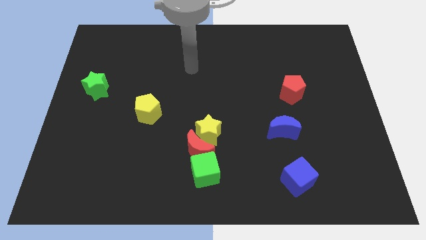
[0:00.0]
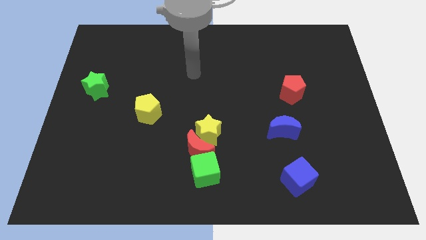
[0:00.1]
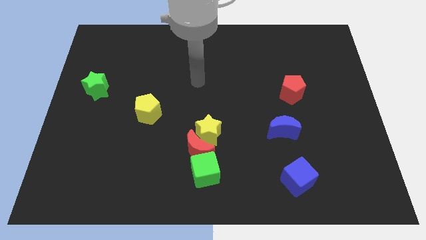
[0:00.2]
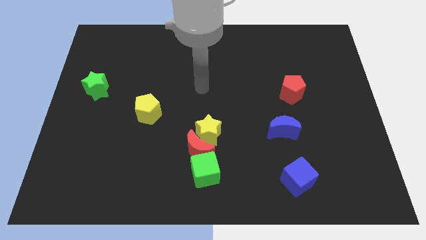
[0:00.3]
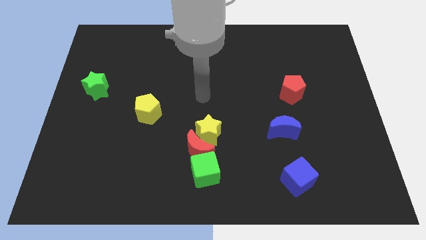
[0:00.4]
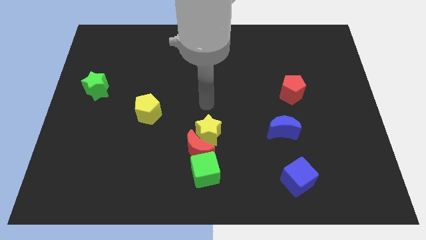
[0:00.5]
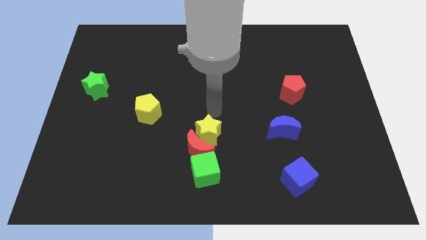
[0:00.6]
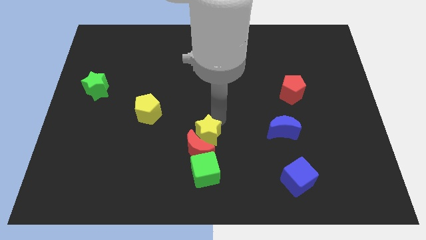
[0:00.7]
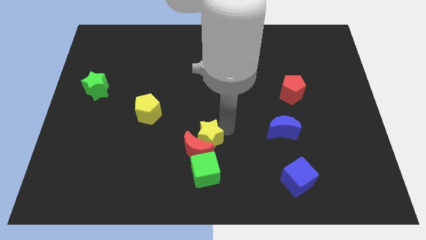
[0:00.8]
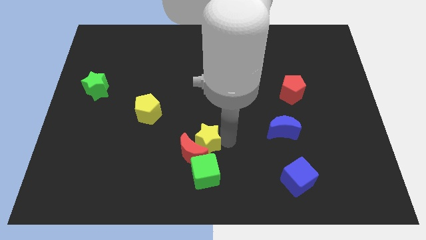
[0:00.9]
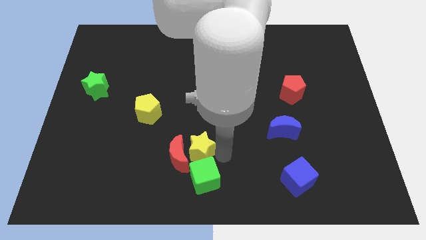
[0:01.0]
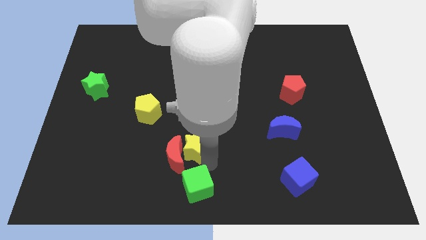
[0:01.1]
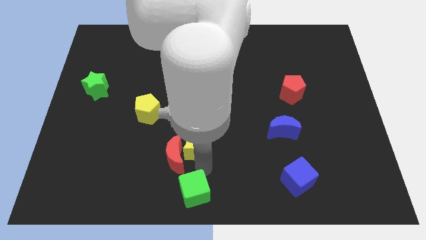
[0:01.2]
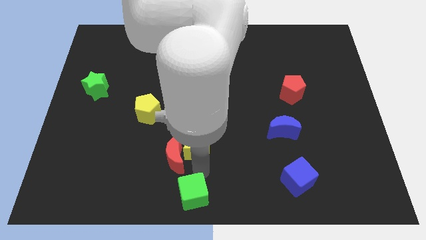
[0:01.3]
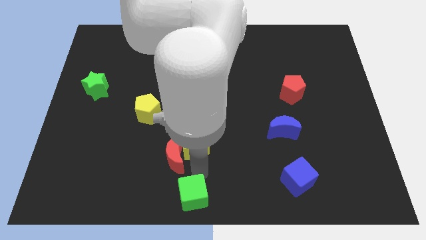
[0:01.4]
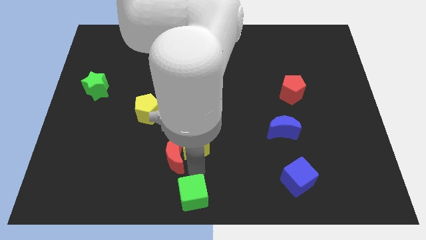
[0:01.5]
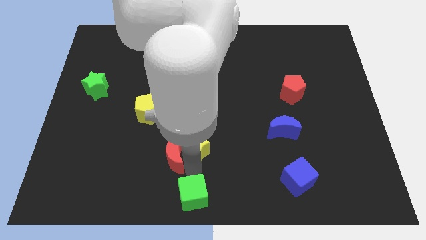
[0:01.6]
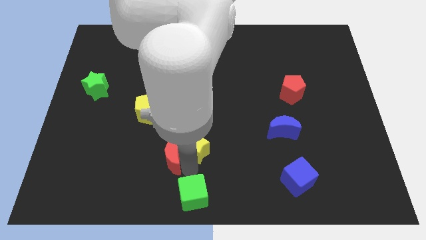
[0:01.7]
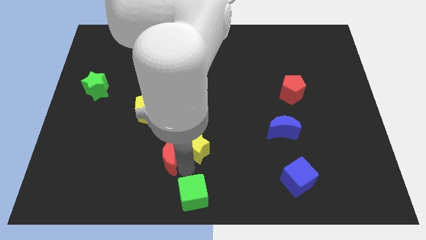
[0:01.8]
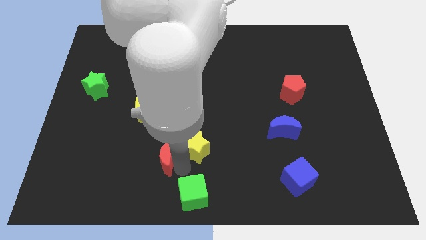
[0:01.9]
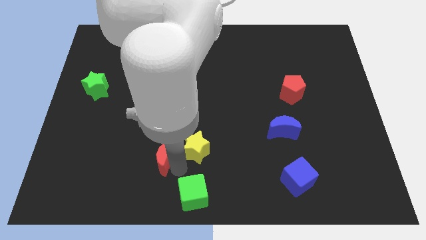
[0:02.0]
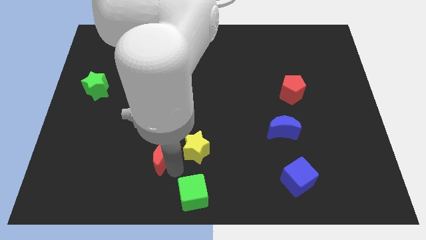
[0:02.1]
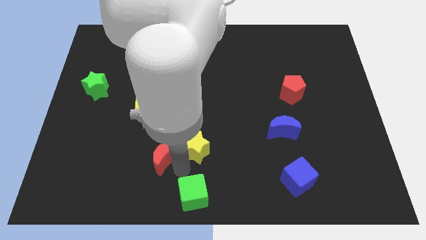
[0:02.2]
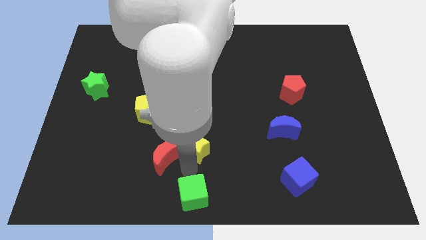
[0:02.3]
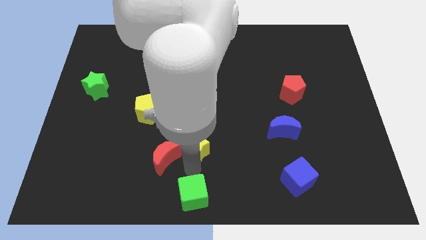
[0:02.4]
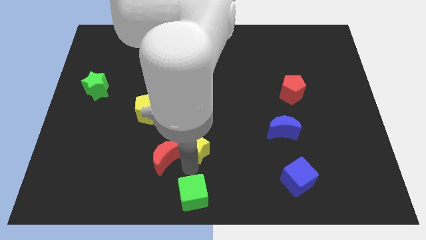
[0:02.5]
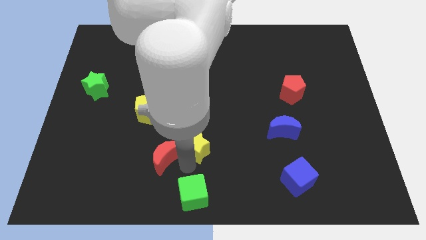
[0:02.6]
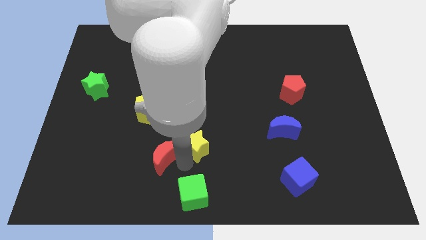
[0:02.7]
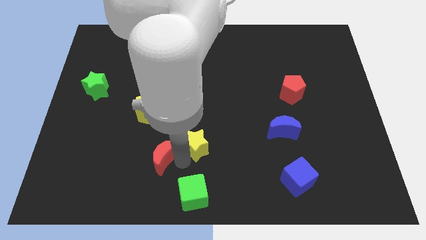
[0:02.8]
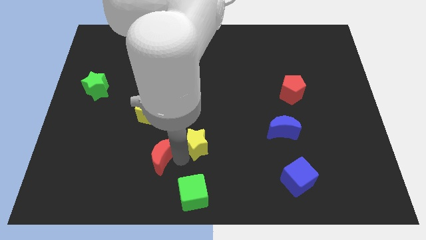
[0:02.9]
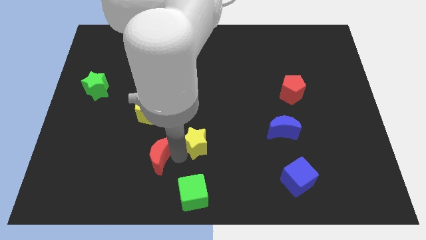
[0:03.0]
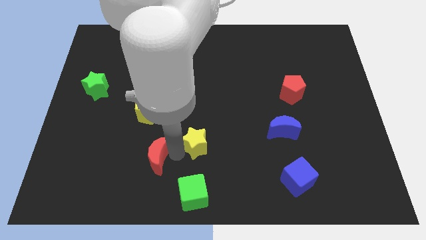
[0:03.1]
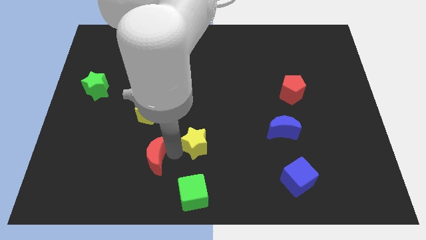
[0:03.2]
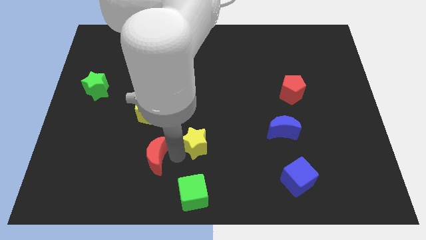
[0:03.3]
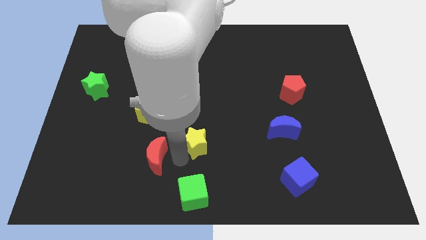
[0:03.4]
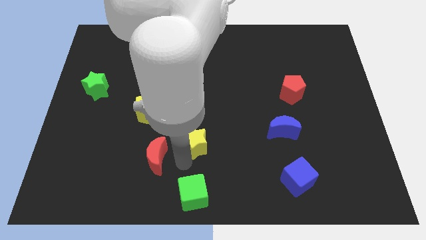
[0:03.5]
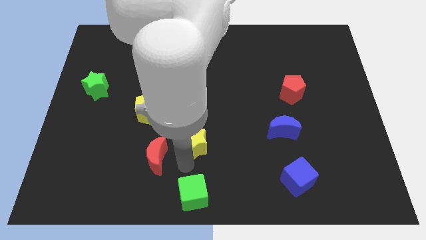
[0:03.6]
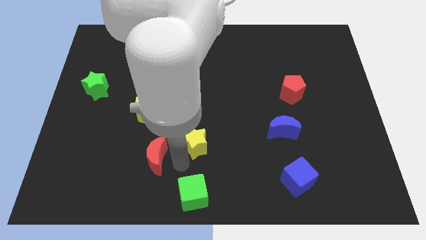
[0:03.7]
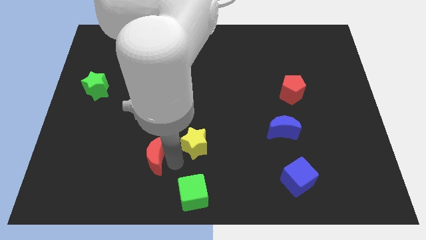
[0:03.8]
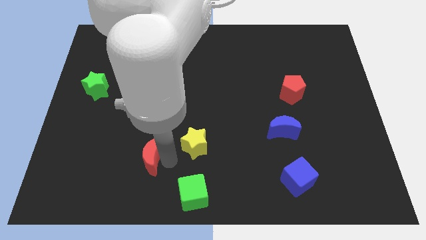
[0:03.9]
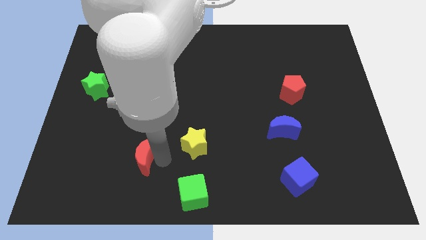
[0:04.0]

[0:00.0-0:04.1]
move the red moon away from the yellow star and green cube

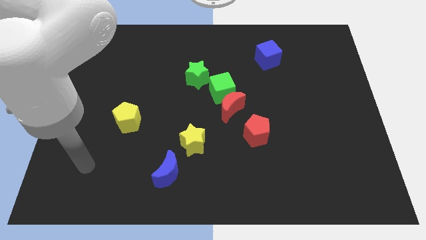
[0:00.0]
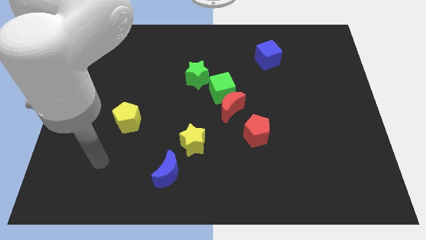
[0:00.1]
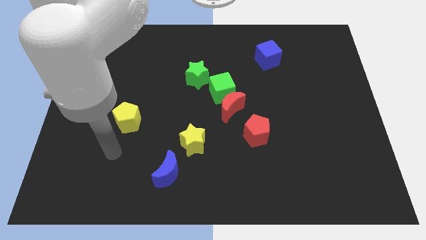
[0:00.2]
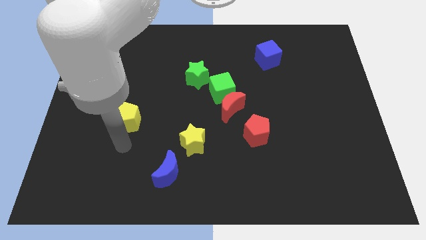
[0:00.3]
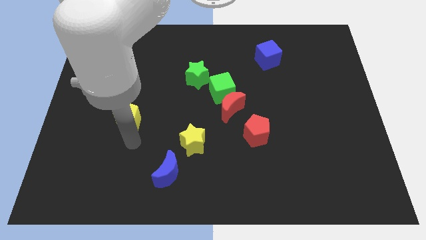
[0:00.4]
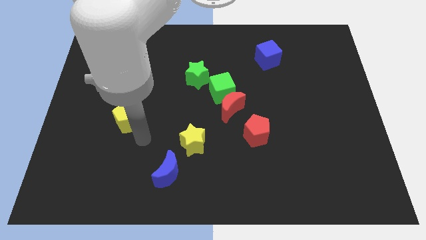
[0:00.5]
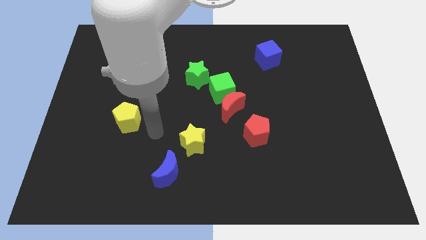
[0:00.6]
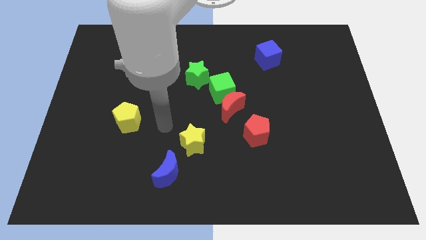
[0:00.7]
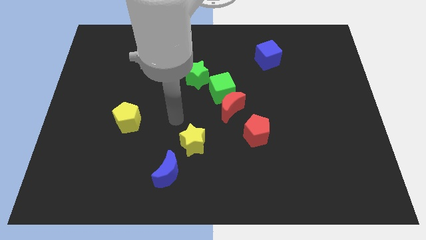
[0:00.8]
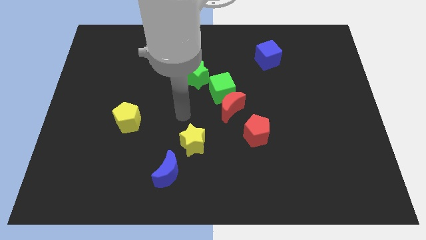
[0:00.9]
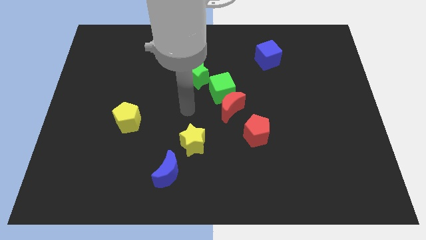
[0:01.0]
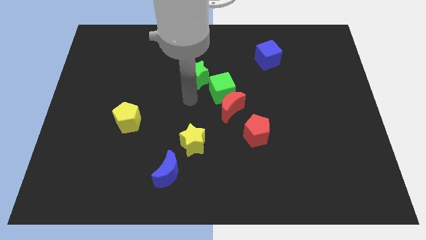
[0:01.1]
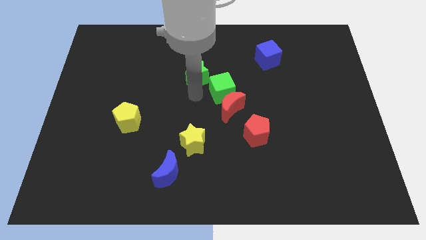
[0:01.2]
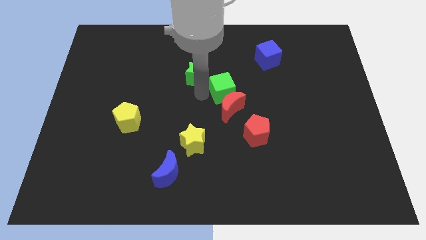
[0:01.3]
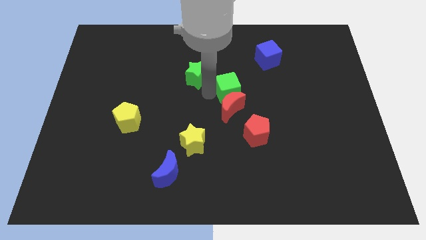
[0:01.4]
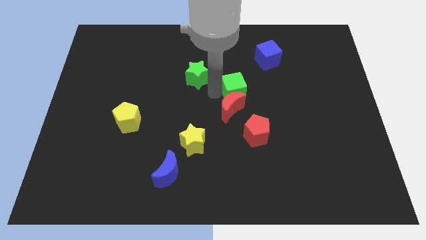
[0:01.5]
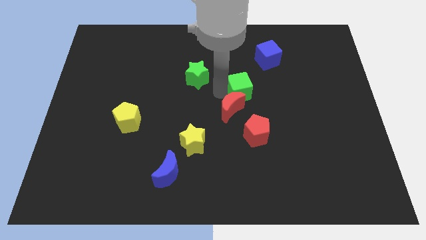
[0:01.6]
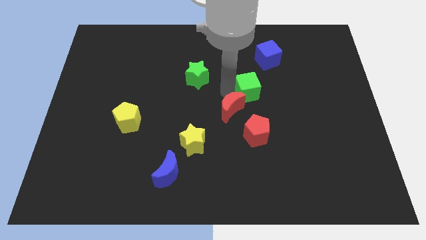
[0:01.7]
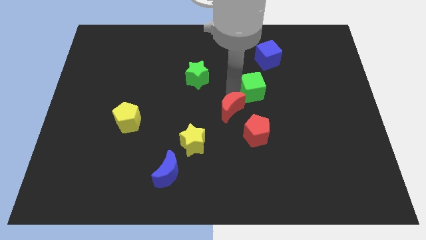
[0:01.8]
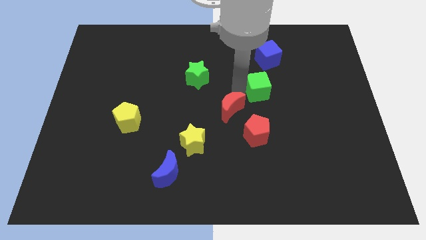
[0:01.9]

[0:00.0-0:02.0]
separate the green cube from the red moon and green star

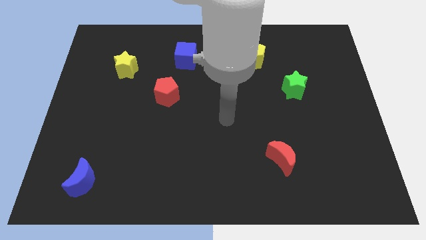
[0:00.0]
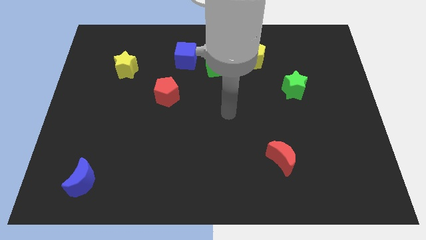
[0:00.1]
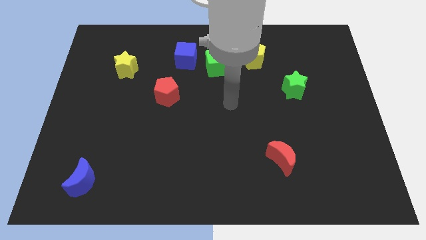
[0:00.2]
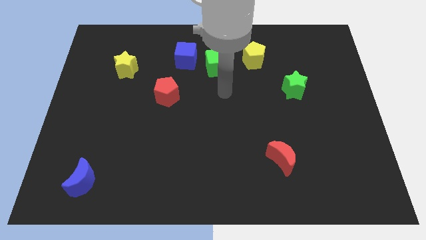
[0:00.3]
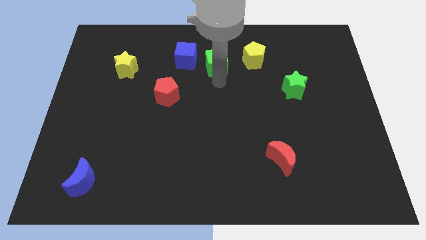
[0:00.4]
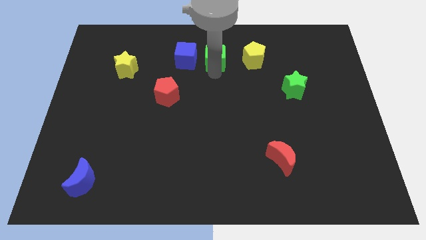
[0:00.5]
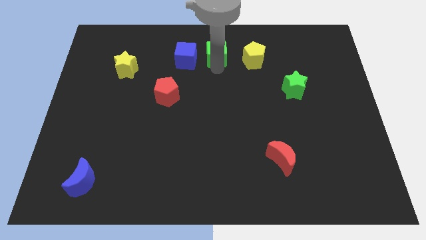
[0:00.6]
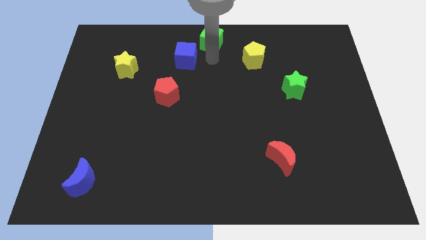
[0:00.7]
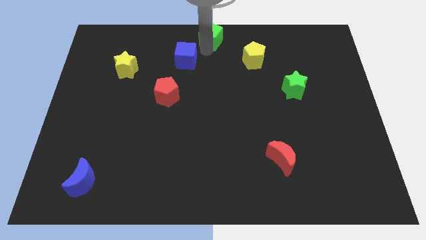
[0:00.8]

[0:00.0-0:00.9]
move the blue cube away from the green cube

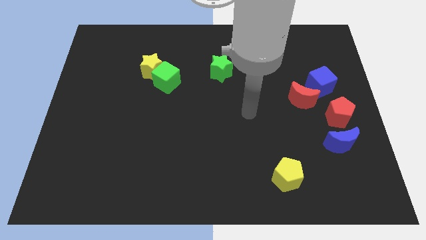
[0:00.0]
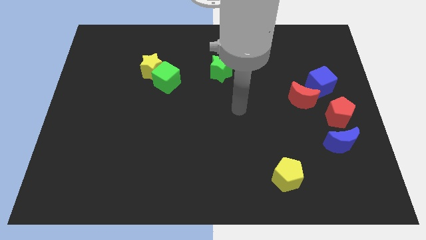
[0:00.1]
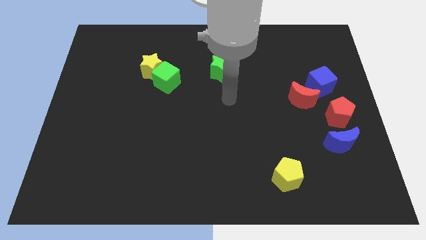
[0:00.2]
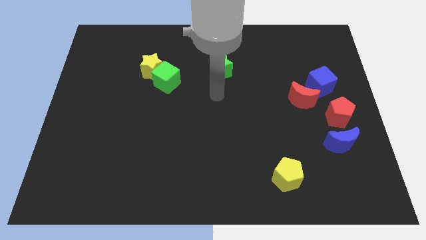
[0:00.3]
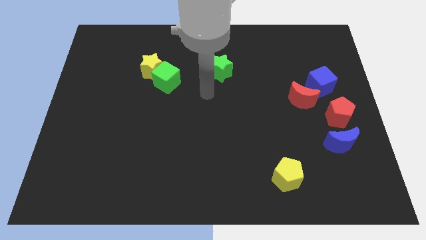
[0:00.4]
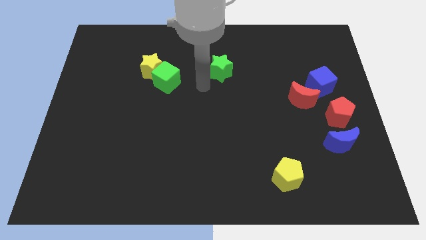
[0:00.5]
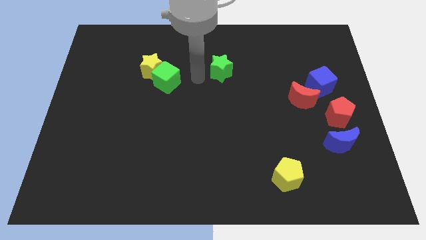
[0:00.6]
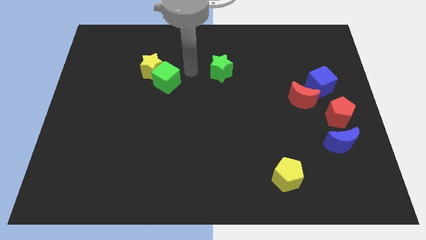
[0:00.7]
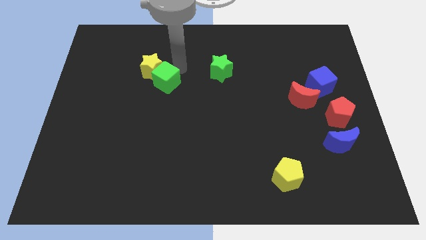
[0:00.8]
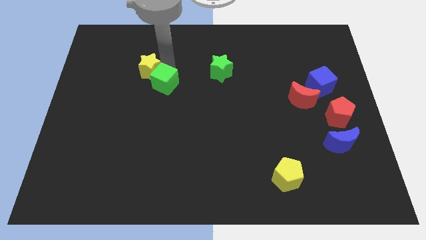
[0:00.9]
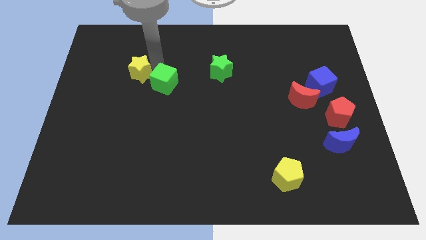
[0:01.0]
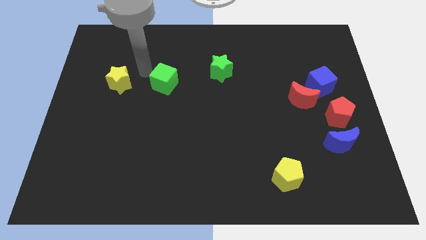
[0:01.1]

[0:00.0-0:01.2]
separate the green cube from the yellow star

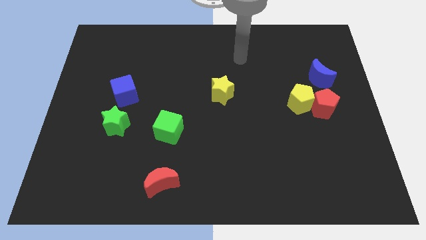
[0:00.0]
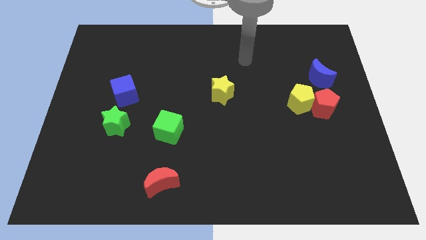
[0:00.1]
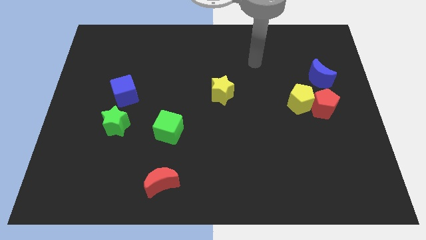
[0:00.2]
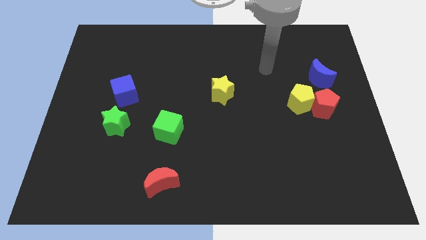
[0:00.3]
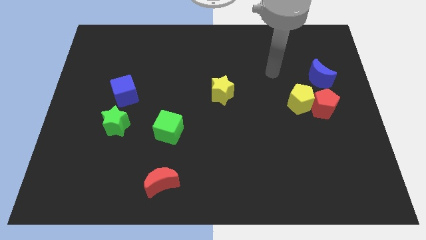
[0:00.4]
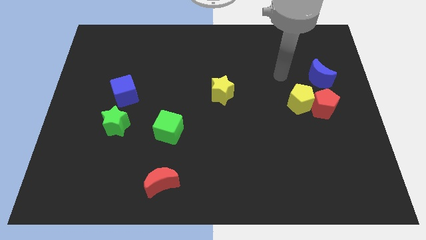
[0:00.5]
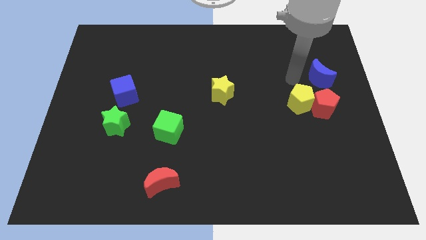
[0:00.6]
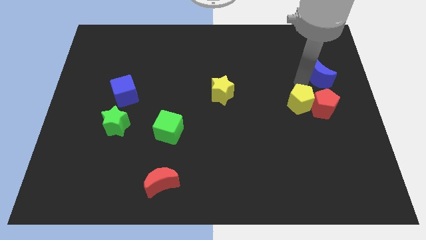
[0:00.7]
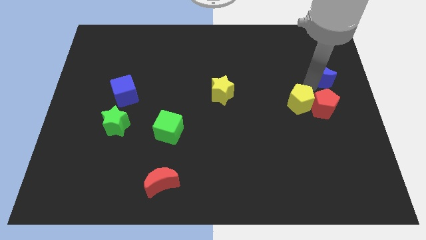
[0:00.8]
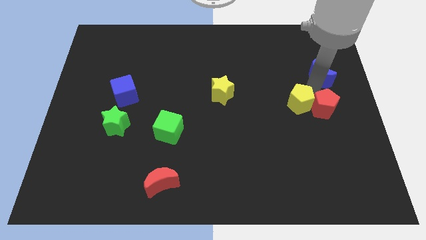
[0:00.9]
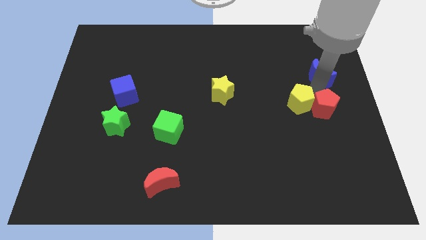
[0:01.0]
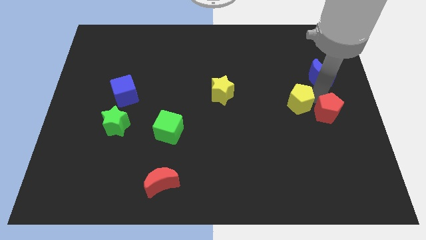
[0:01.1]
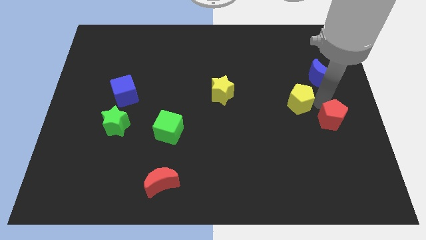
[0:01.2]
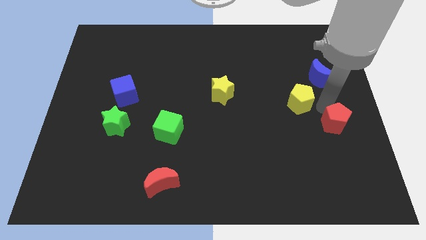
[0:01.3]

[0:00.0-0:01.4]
pull the red pentagon apart from the yellow pentagon and blue moon
